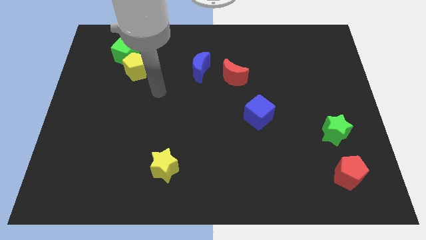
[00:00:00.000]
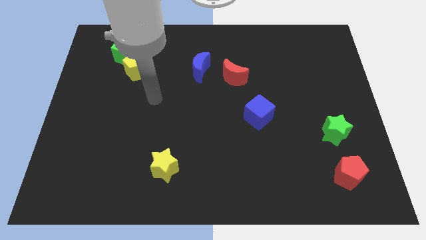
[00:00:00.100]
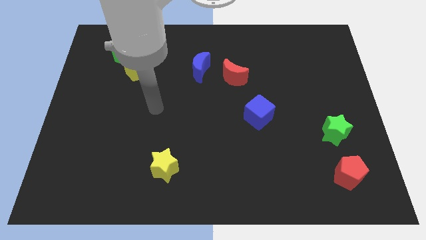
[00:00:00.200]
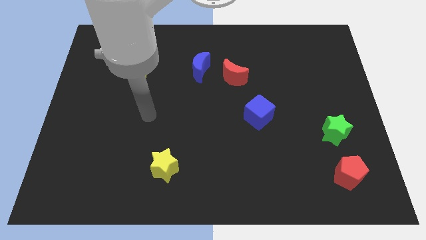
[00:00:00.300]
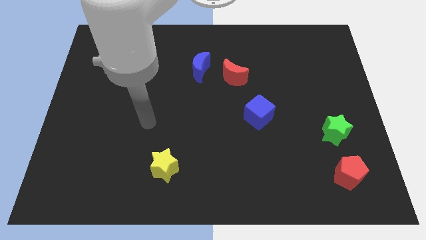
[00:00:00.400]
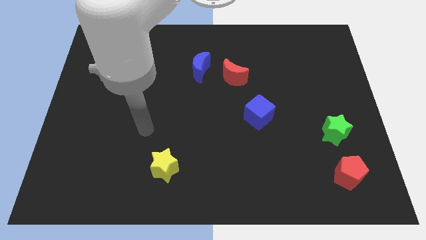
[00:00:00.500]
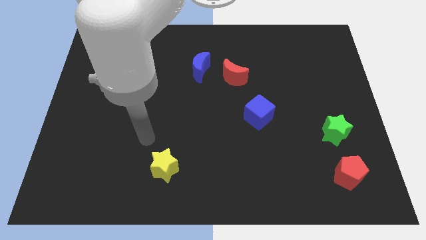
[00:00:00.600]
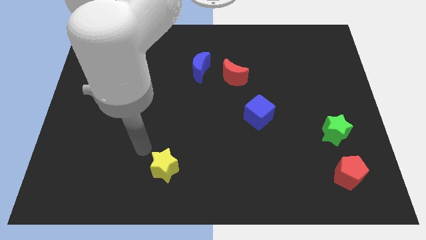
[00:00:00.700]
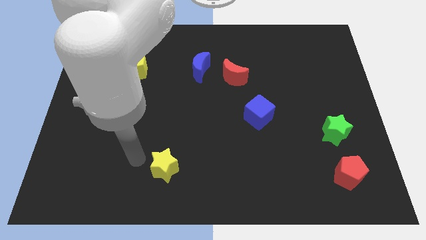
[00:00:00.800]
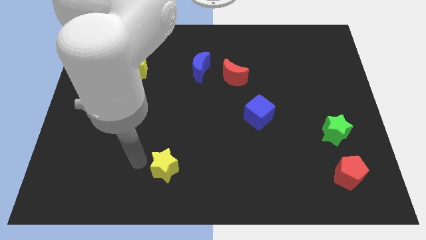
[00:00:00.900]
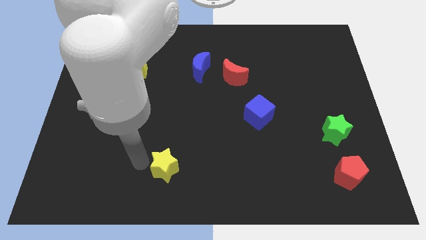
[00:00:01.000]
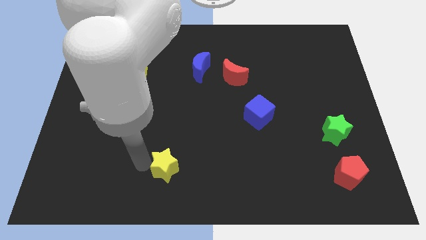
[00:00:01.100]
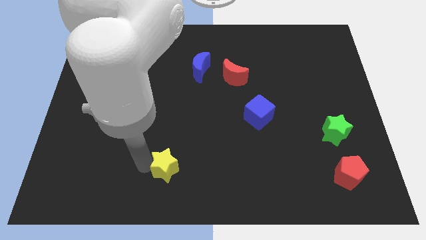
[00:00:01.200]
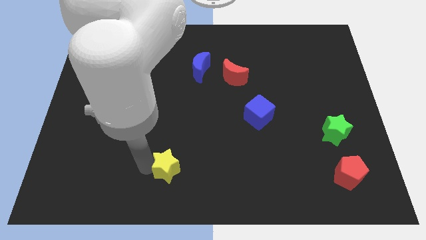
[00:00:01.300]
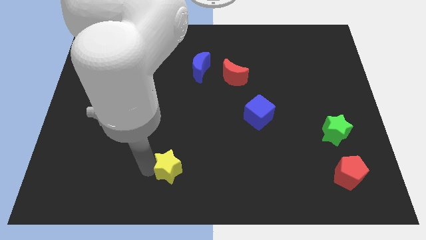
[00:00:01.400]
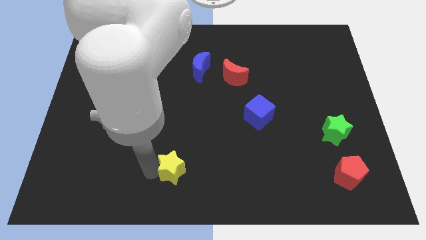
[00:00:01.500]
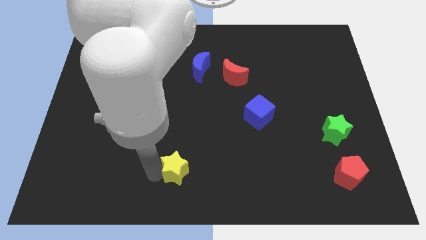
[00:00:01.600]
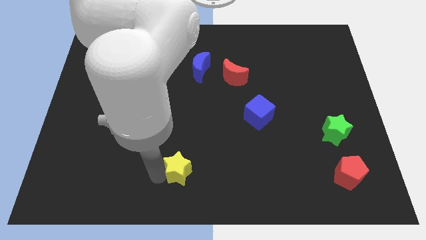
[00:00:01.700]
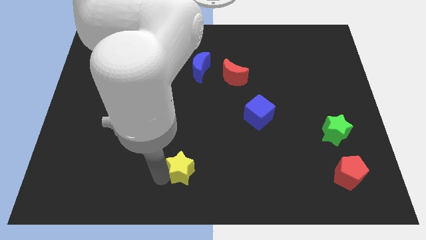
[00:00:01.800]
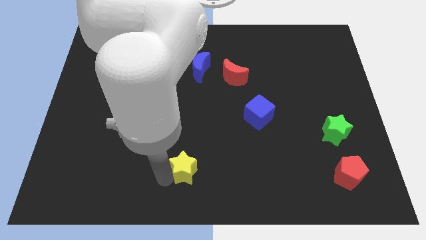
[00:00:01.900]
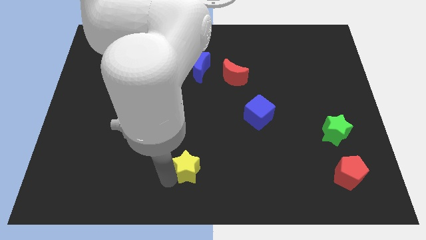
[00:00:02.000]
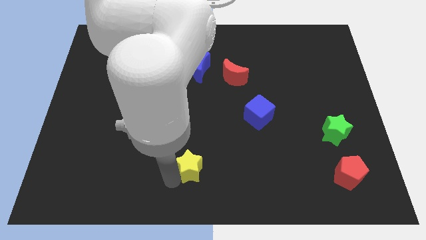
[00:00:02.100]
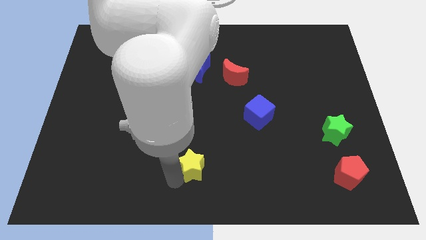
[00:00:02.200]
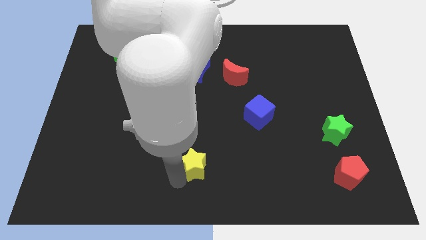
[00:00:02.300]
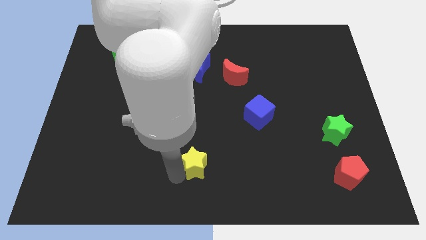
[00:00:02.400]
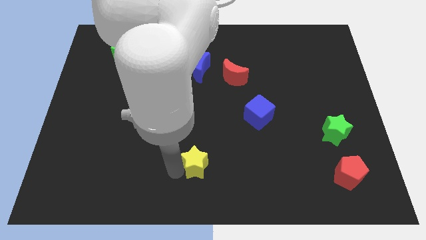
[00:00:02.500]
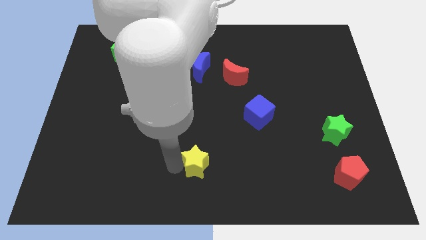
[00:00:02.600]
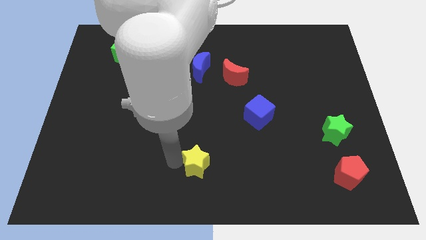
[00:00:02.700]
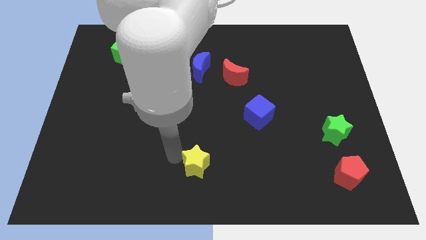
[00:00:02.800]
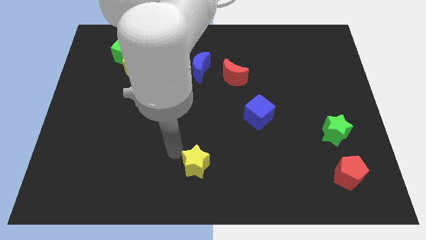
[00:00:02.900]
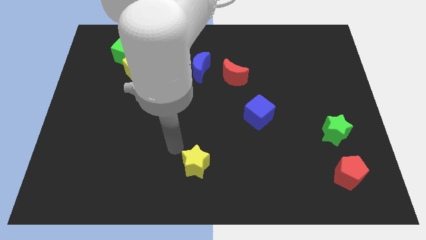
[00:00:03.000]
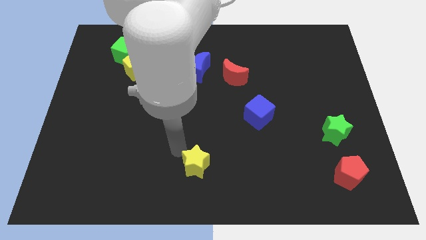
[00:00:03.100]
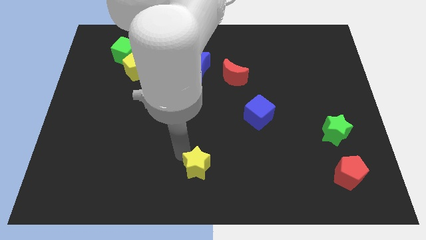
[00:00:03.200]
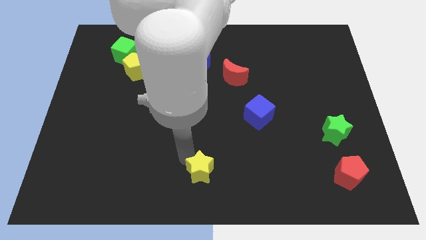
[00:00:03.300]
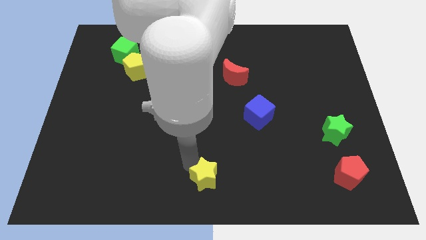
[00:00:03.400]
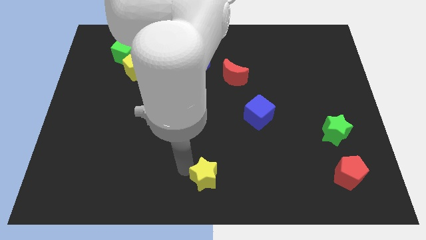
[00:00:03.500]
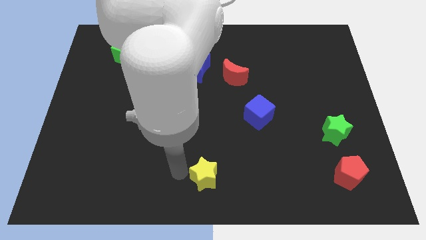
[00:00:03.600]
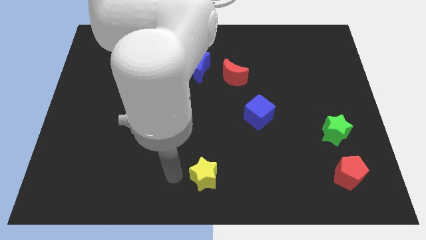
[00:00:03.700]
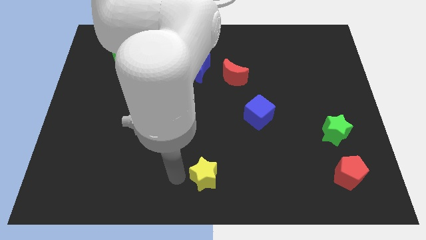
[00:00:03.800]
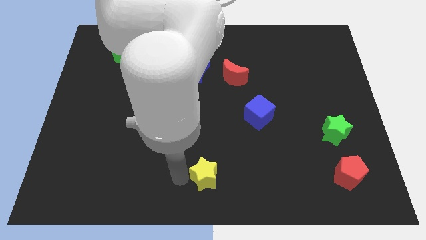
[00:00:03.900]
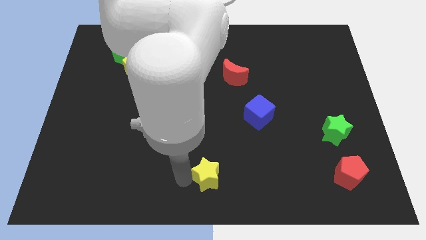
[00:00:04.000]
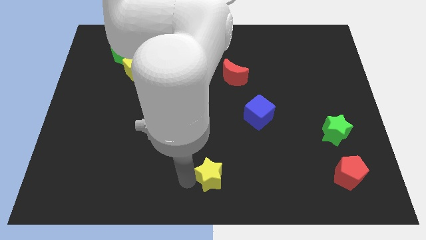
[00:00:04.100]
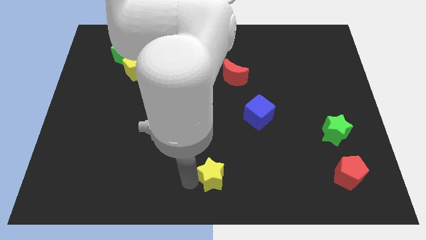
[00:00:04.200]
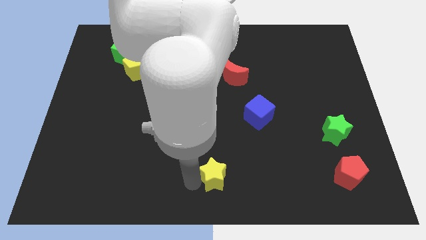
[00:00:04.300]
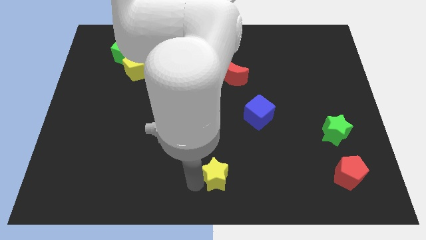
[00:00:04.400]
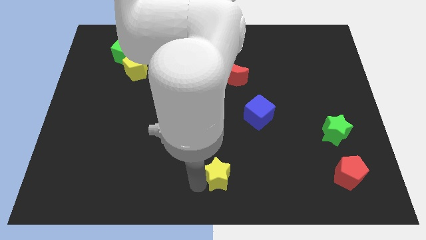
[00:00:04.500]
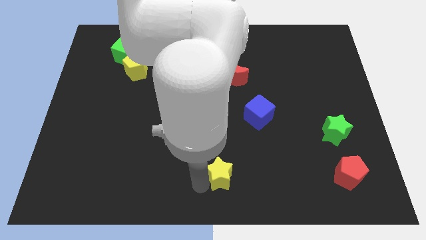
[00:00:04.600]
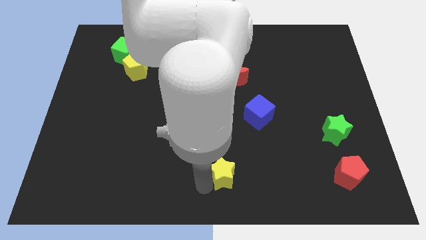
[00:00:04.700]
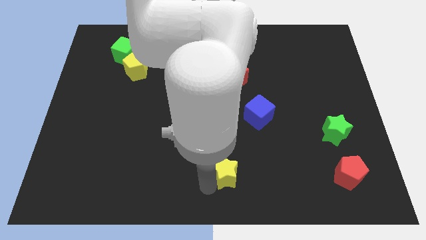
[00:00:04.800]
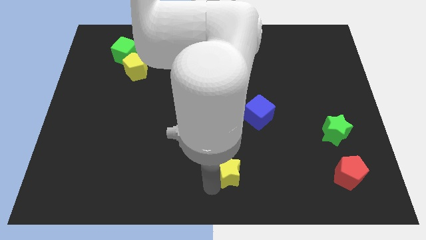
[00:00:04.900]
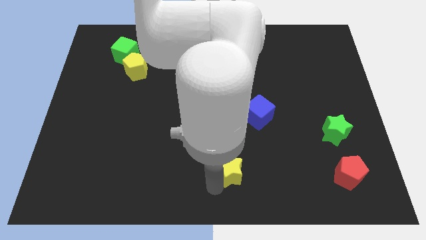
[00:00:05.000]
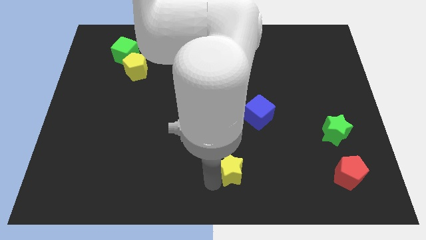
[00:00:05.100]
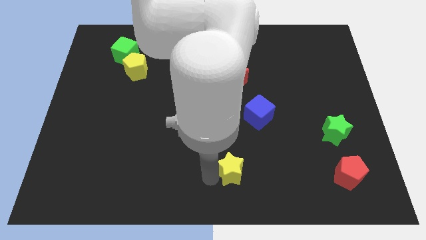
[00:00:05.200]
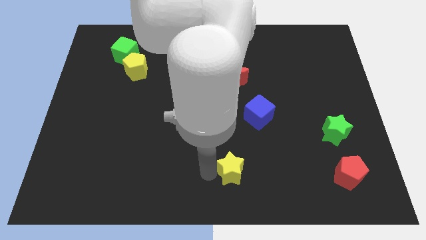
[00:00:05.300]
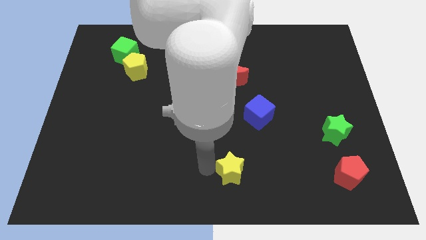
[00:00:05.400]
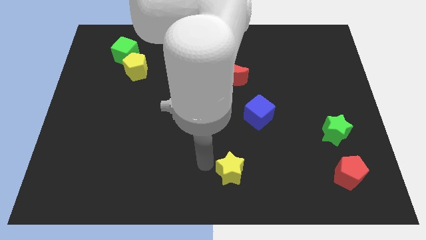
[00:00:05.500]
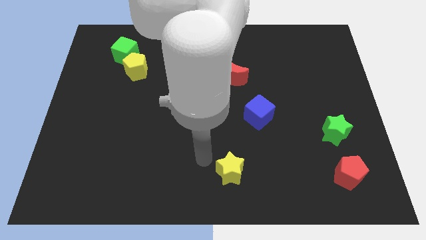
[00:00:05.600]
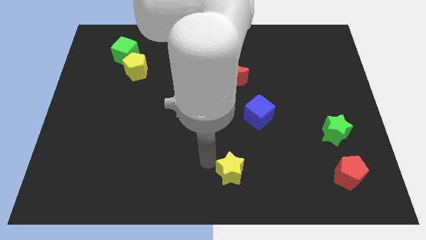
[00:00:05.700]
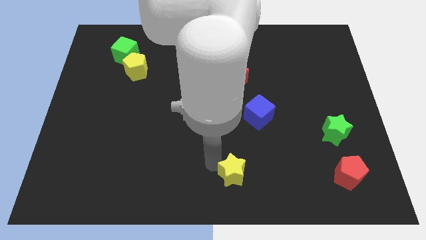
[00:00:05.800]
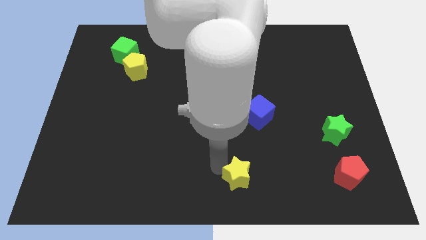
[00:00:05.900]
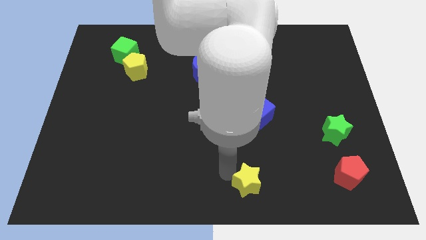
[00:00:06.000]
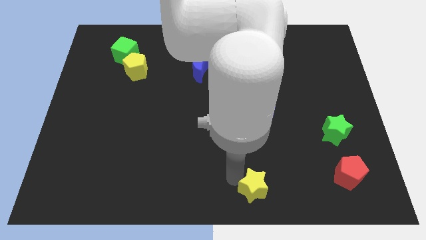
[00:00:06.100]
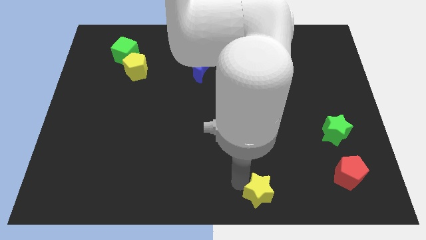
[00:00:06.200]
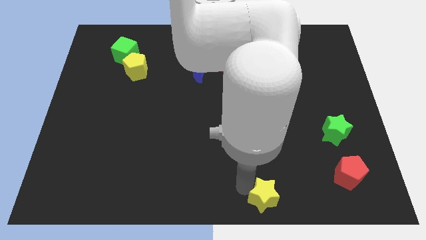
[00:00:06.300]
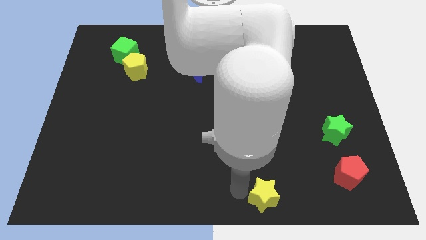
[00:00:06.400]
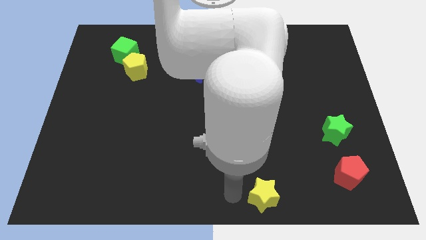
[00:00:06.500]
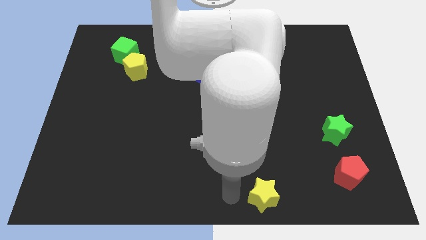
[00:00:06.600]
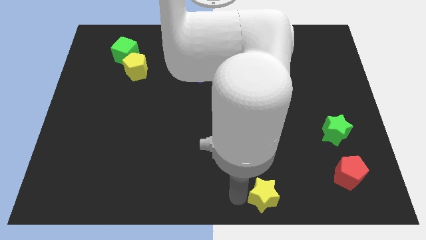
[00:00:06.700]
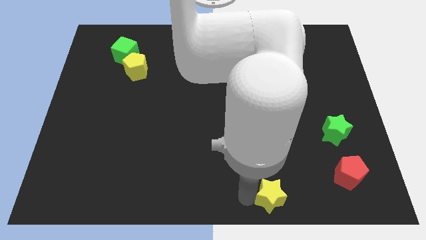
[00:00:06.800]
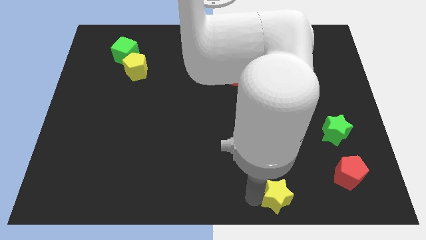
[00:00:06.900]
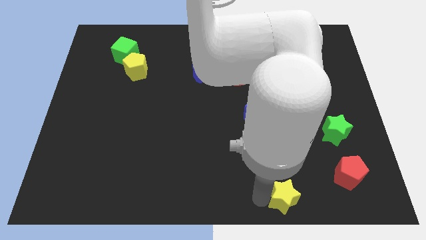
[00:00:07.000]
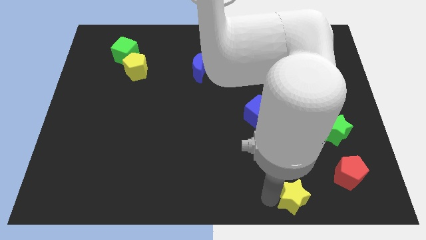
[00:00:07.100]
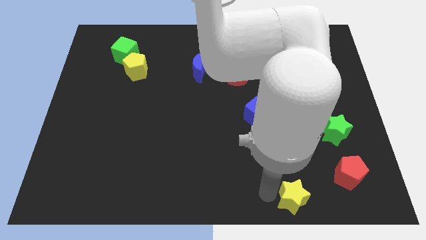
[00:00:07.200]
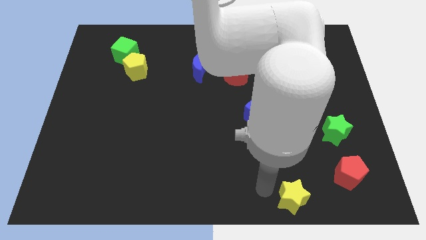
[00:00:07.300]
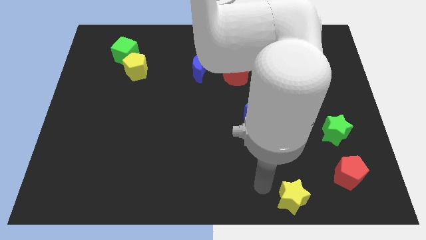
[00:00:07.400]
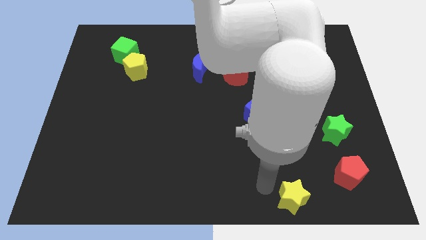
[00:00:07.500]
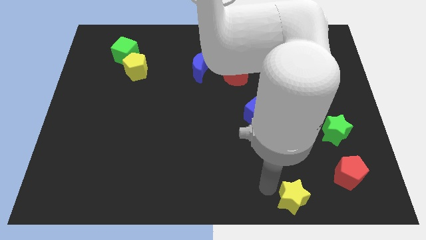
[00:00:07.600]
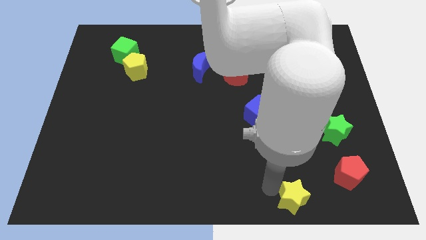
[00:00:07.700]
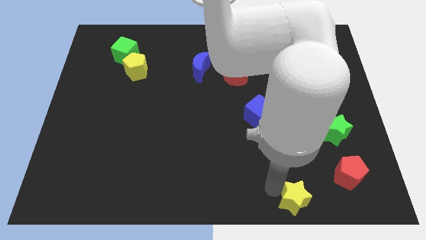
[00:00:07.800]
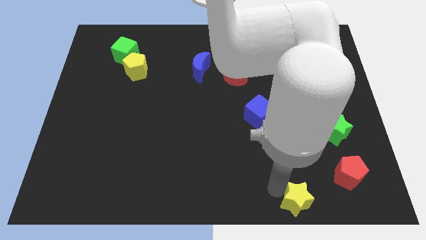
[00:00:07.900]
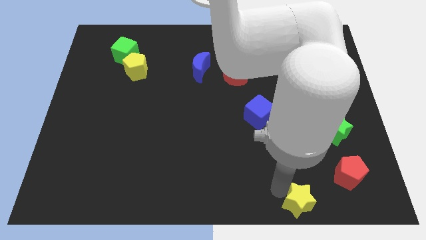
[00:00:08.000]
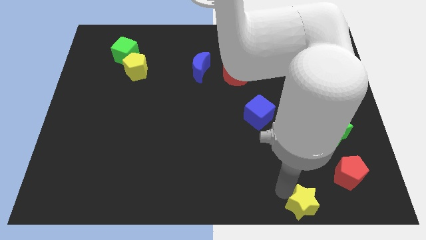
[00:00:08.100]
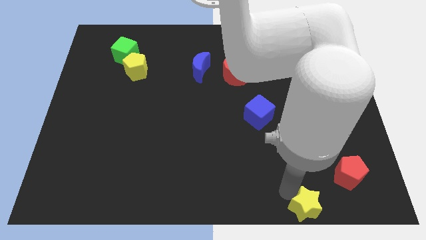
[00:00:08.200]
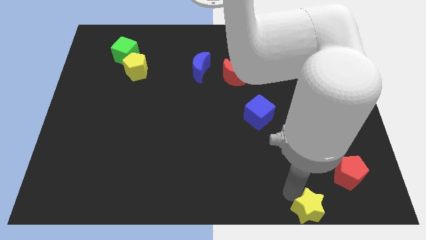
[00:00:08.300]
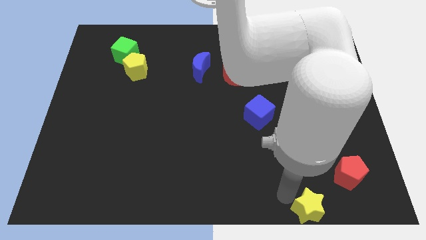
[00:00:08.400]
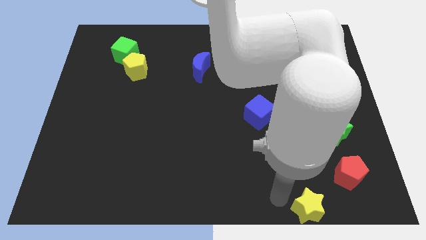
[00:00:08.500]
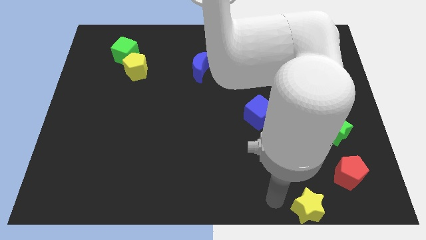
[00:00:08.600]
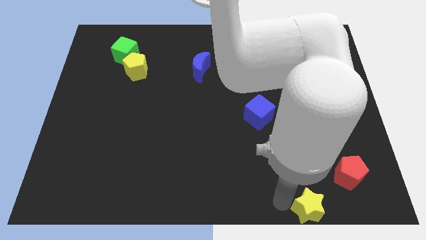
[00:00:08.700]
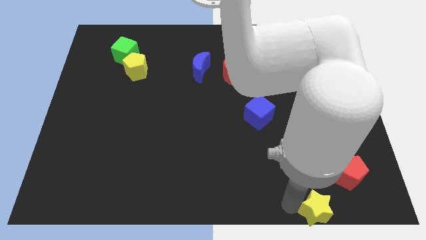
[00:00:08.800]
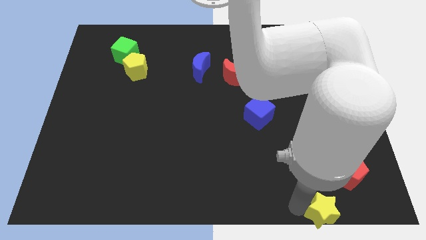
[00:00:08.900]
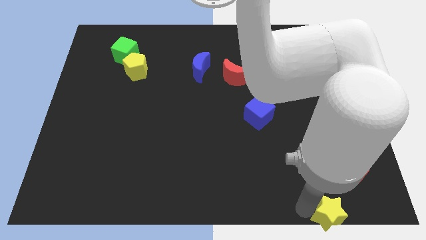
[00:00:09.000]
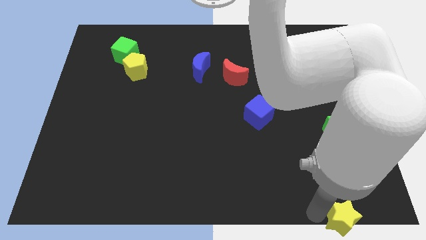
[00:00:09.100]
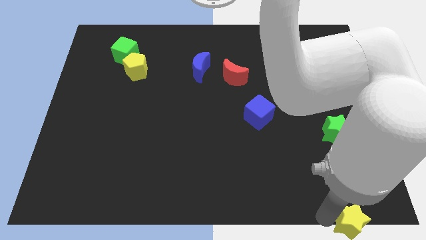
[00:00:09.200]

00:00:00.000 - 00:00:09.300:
push the yellow star to the lower right corner
